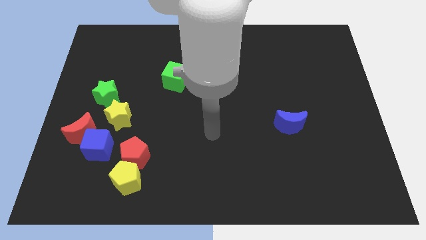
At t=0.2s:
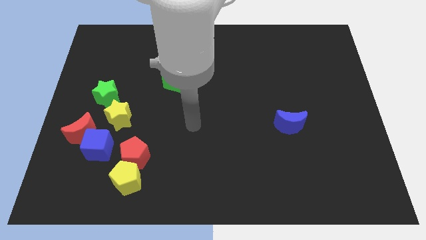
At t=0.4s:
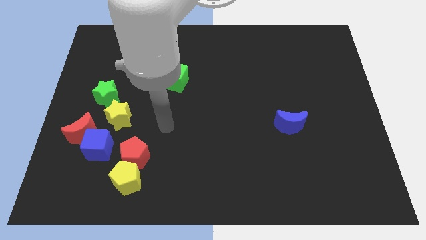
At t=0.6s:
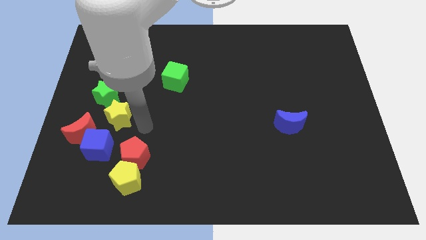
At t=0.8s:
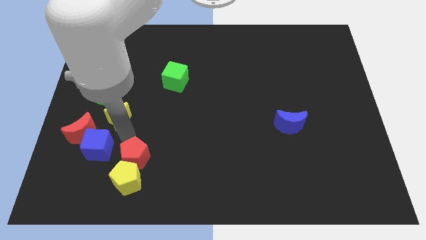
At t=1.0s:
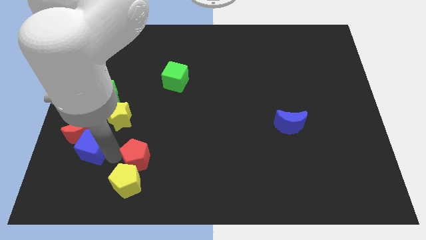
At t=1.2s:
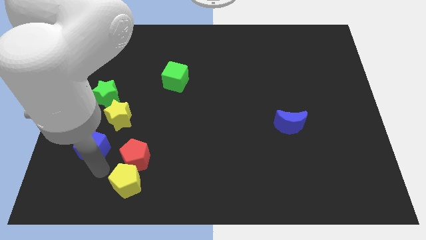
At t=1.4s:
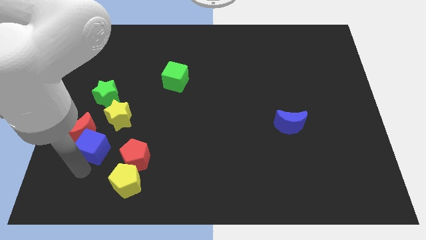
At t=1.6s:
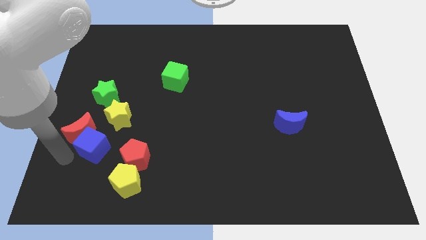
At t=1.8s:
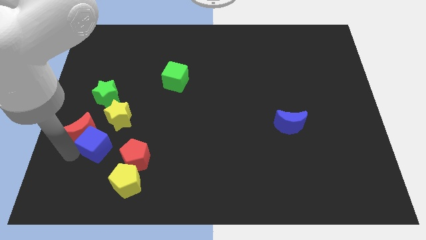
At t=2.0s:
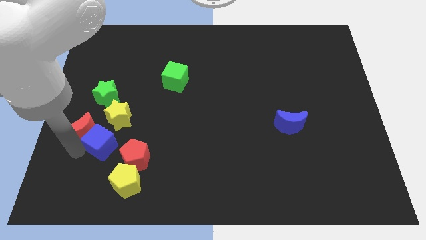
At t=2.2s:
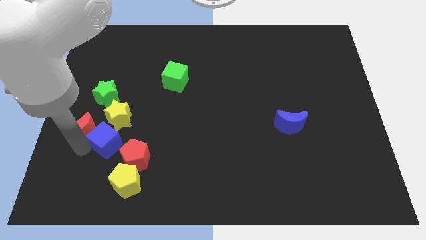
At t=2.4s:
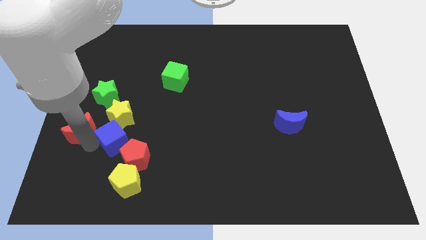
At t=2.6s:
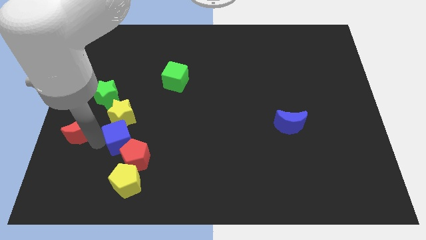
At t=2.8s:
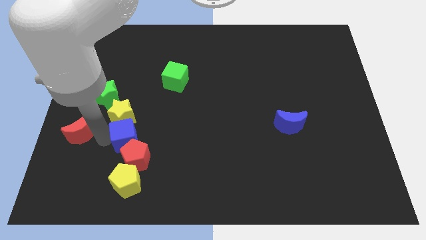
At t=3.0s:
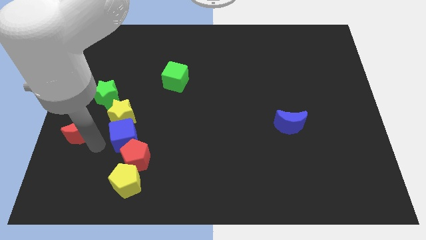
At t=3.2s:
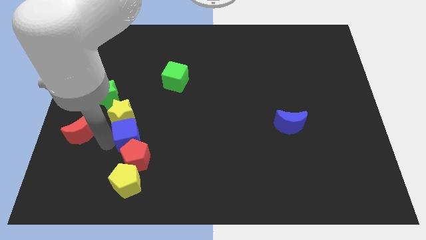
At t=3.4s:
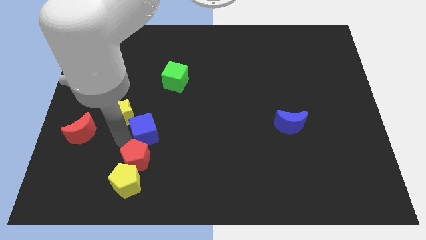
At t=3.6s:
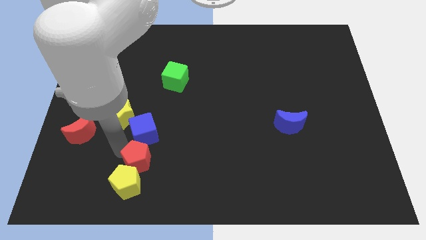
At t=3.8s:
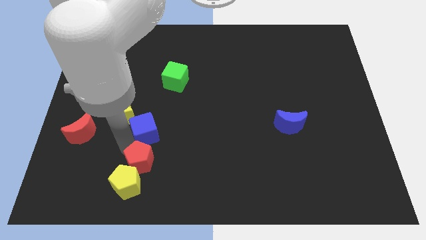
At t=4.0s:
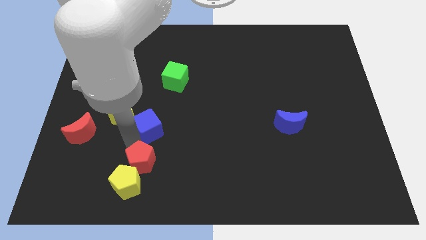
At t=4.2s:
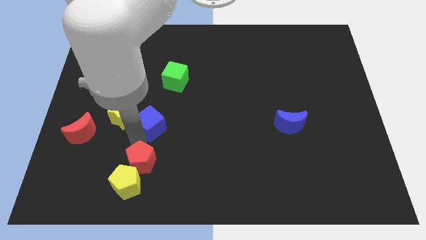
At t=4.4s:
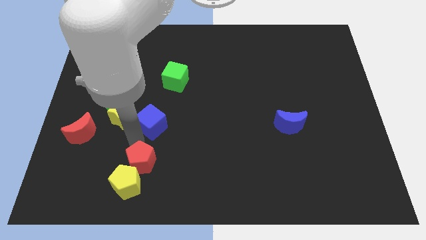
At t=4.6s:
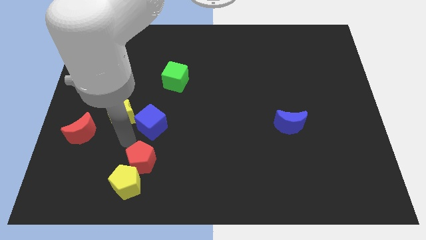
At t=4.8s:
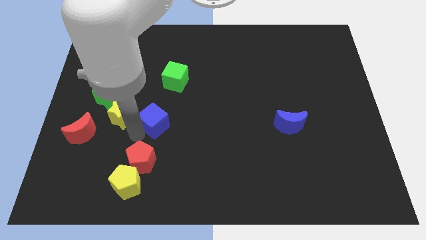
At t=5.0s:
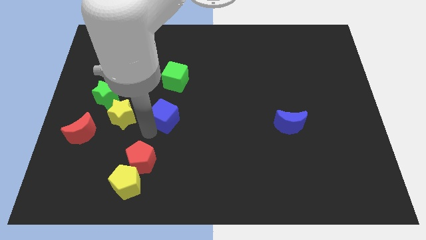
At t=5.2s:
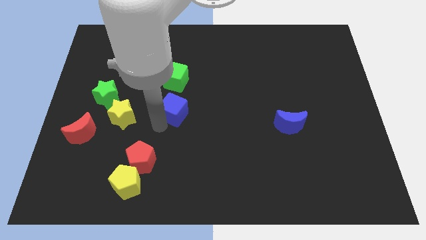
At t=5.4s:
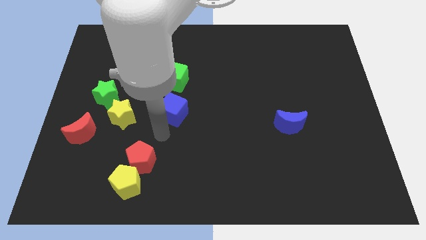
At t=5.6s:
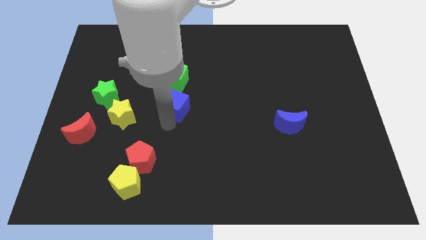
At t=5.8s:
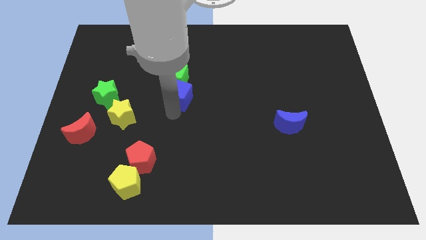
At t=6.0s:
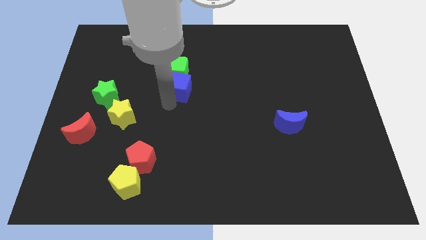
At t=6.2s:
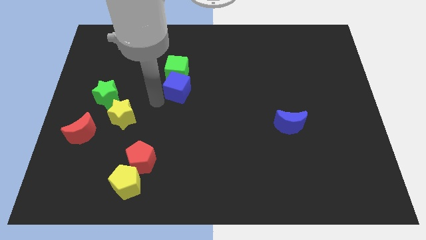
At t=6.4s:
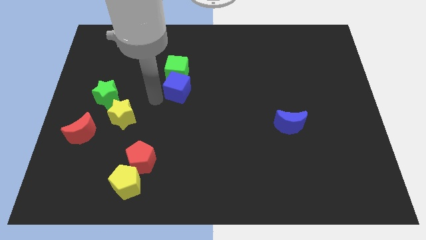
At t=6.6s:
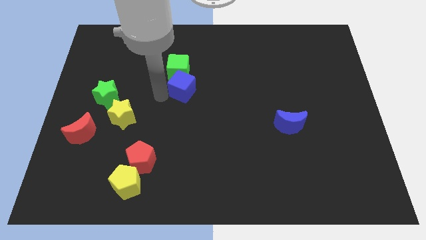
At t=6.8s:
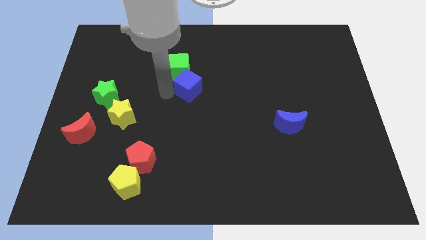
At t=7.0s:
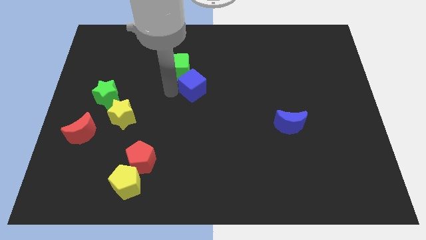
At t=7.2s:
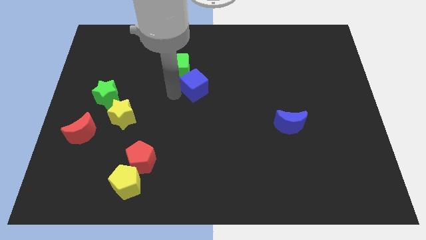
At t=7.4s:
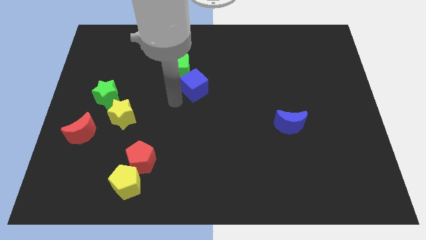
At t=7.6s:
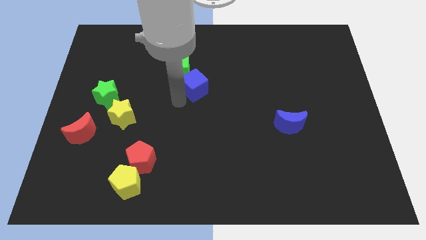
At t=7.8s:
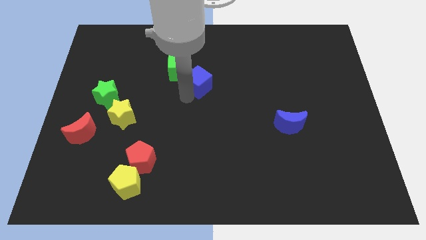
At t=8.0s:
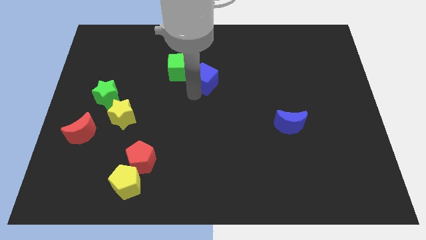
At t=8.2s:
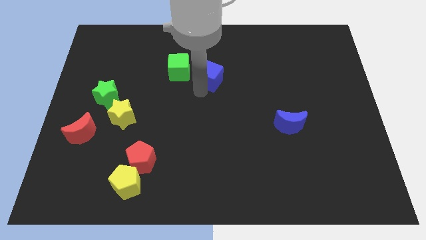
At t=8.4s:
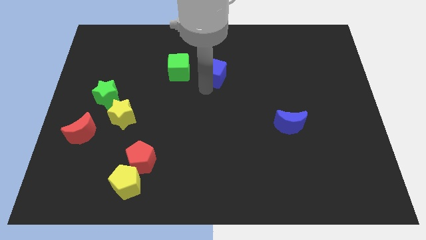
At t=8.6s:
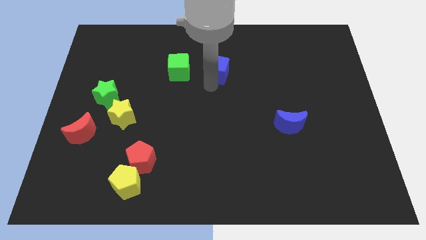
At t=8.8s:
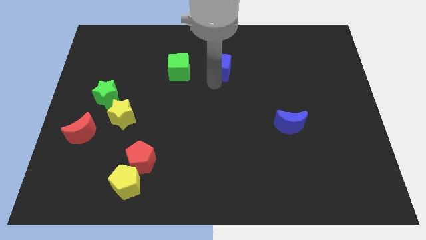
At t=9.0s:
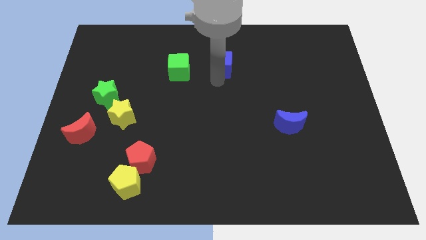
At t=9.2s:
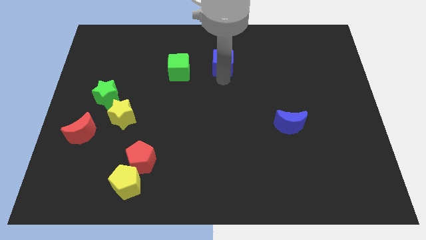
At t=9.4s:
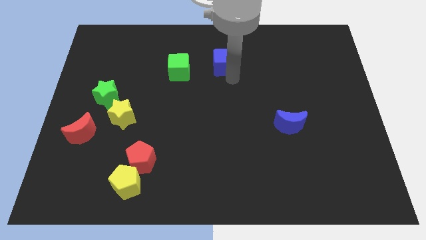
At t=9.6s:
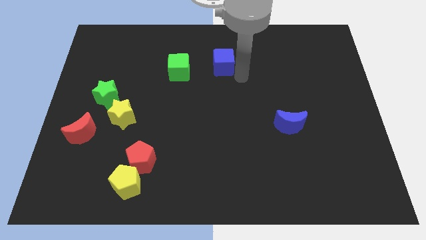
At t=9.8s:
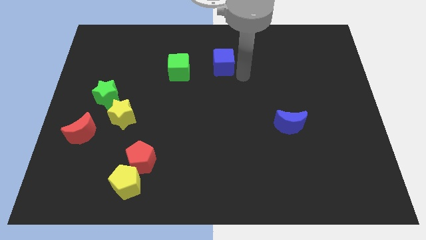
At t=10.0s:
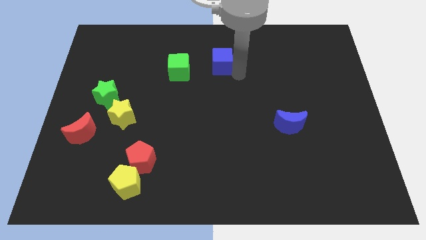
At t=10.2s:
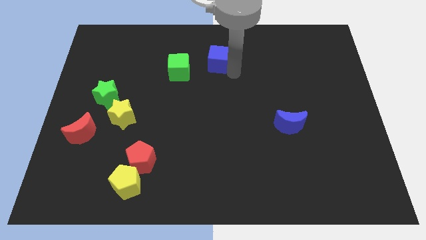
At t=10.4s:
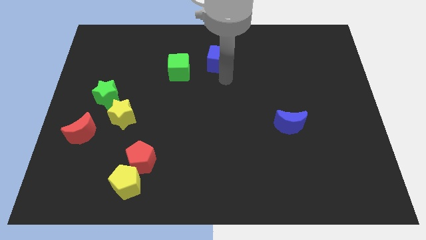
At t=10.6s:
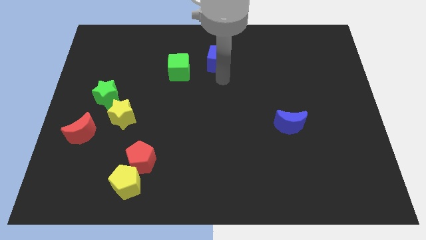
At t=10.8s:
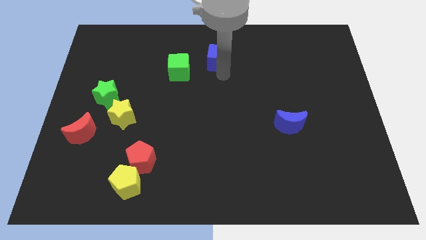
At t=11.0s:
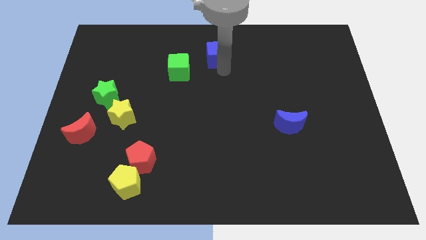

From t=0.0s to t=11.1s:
move the blue cube to the top side

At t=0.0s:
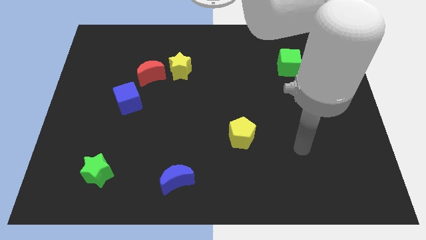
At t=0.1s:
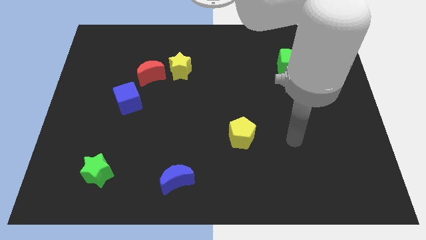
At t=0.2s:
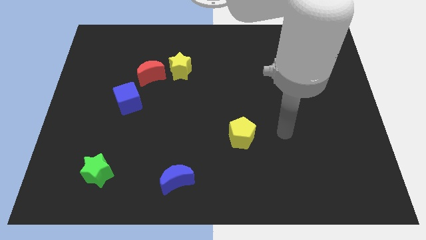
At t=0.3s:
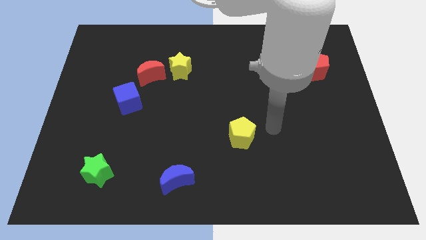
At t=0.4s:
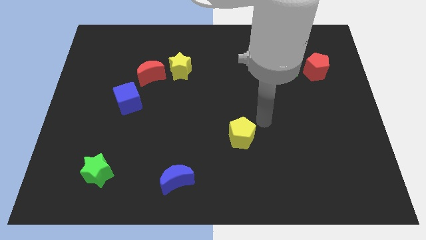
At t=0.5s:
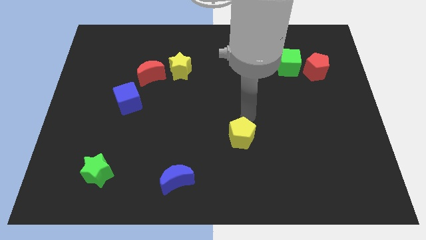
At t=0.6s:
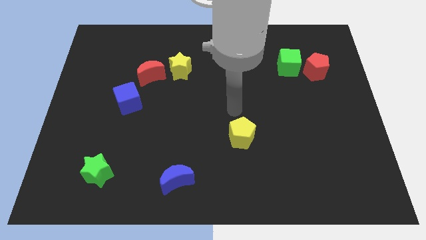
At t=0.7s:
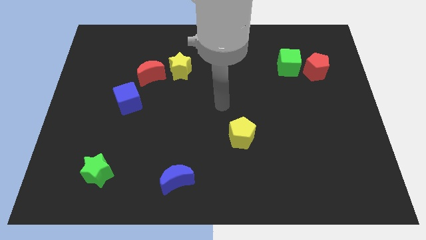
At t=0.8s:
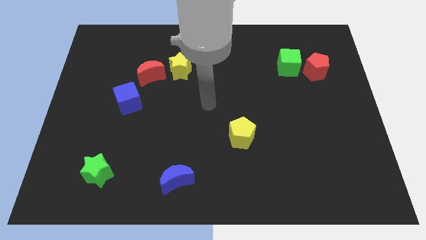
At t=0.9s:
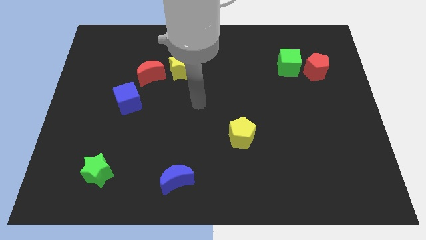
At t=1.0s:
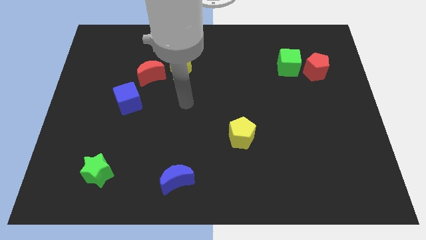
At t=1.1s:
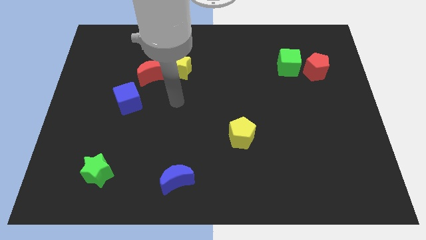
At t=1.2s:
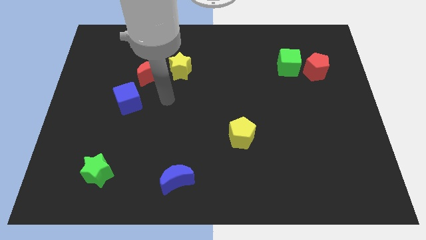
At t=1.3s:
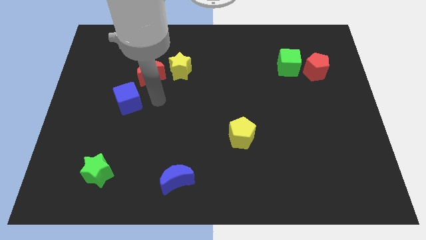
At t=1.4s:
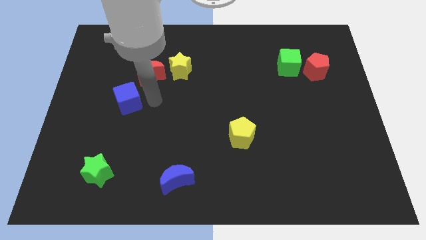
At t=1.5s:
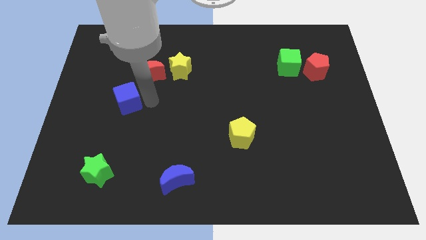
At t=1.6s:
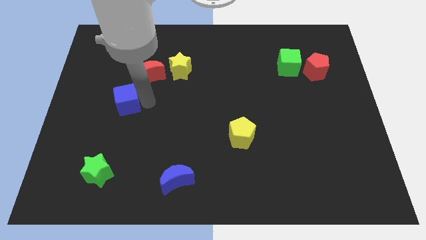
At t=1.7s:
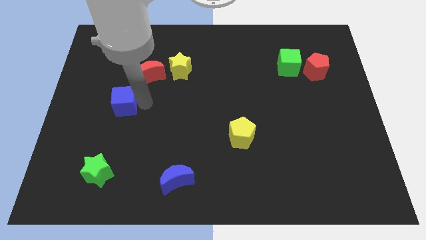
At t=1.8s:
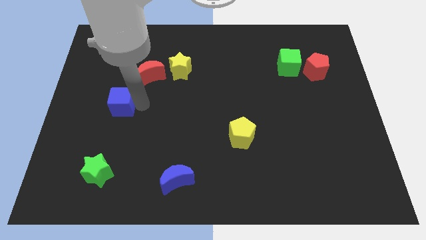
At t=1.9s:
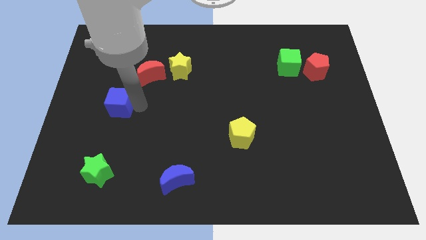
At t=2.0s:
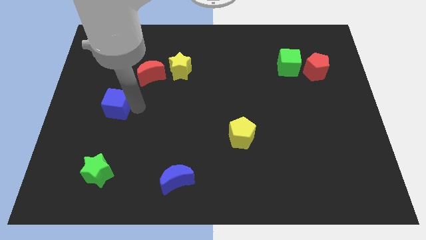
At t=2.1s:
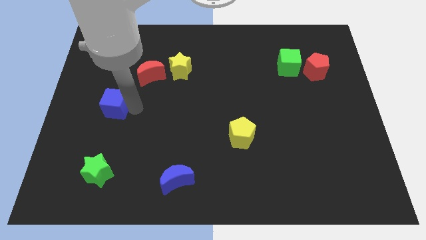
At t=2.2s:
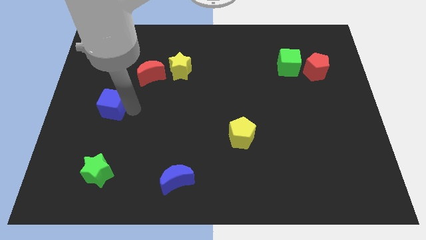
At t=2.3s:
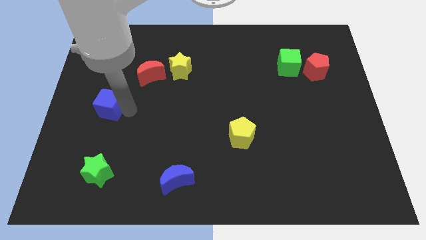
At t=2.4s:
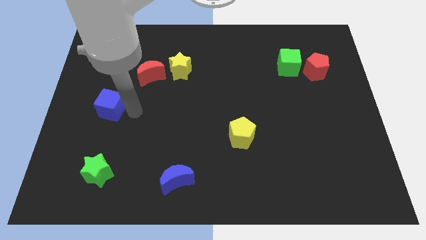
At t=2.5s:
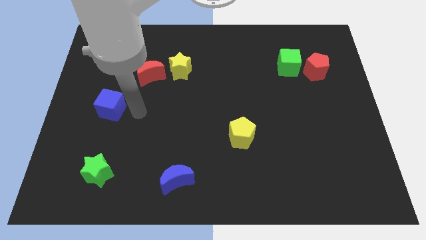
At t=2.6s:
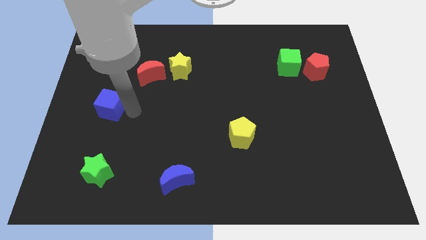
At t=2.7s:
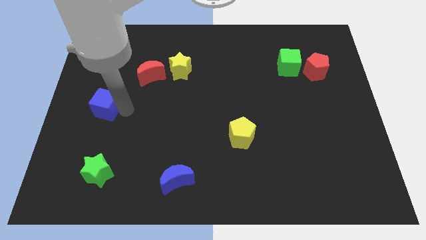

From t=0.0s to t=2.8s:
put the blue cube to the left side
